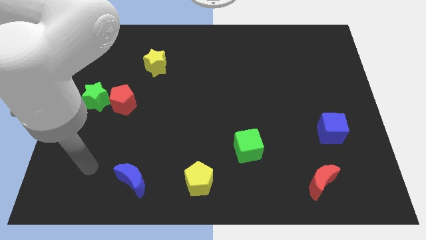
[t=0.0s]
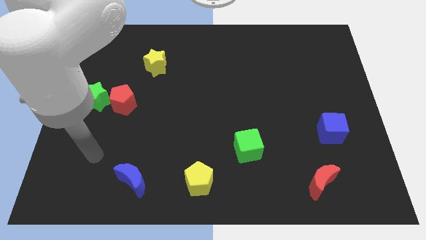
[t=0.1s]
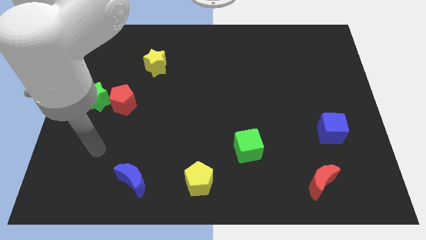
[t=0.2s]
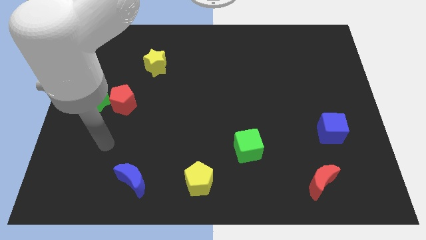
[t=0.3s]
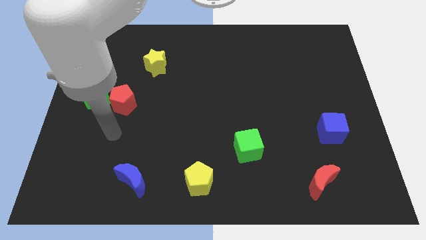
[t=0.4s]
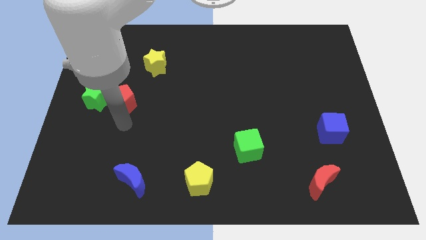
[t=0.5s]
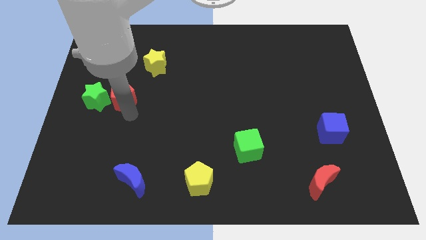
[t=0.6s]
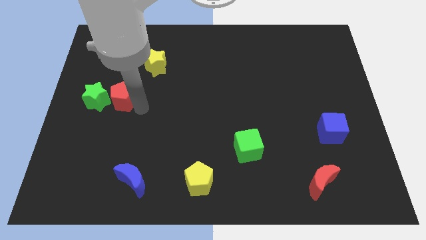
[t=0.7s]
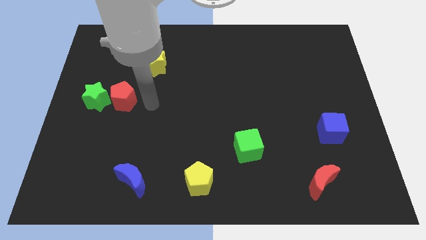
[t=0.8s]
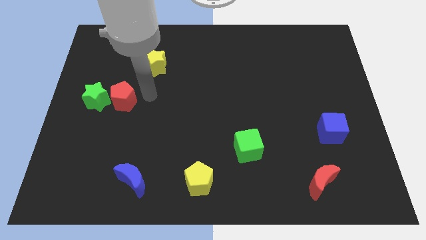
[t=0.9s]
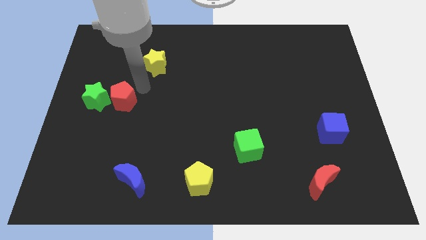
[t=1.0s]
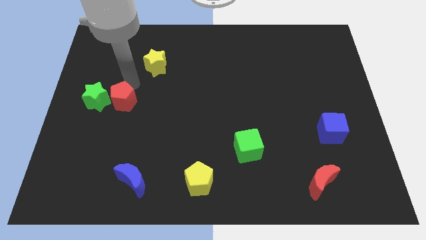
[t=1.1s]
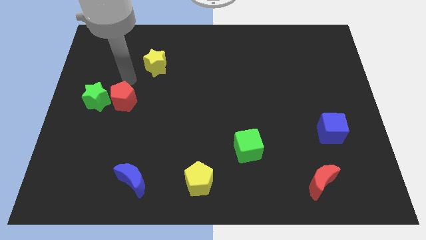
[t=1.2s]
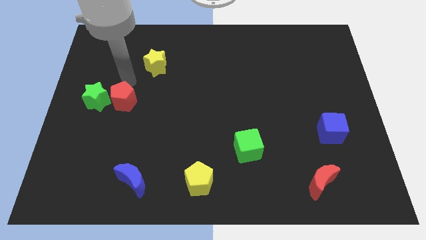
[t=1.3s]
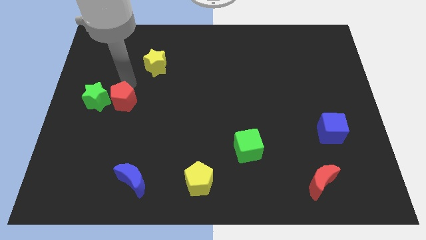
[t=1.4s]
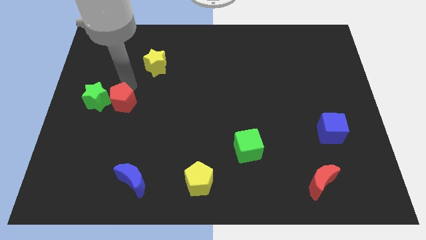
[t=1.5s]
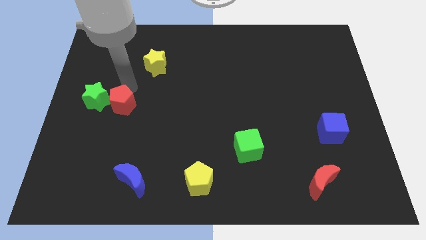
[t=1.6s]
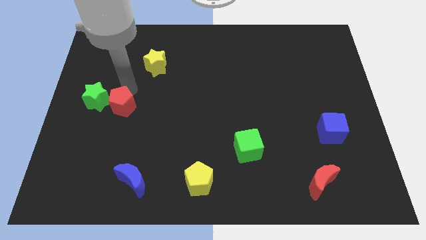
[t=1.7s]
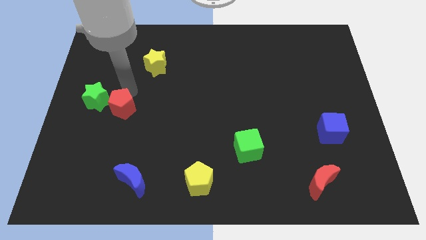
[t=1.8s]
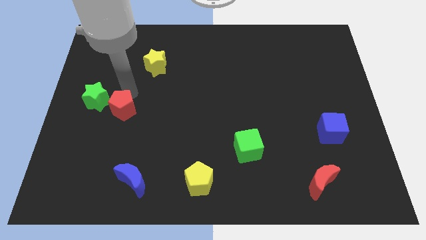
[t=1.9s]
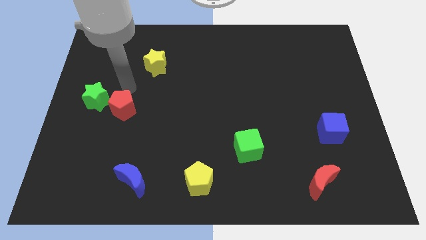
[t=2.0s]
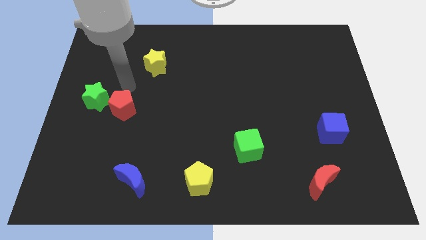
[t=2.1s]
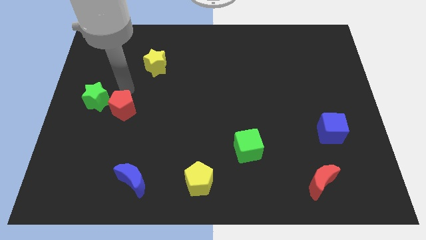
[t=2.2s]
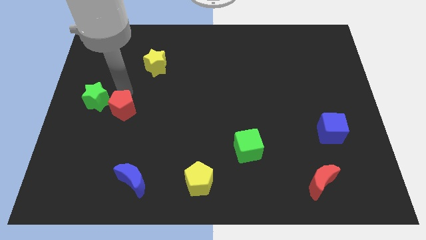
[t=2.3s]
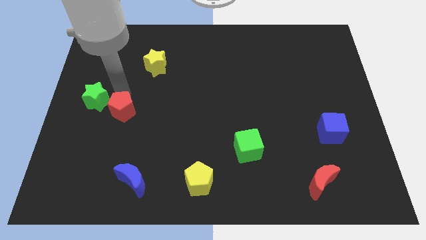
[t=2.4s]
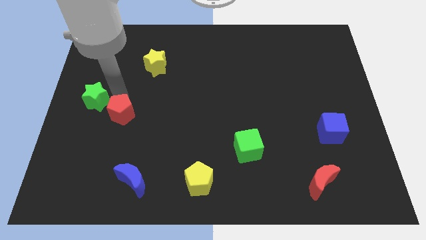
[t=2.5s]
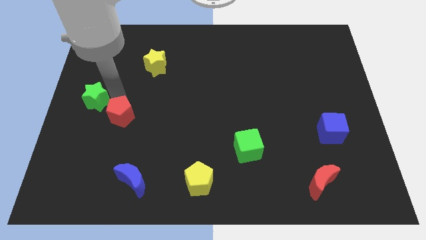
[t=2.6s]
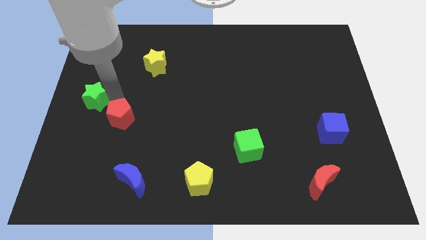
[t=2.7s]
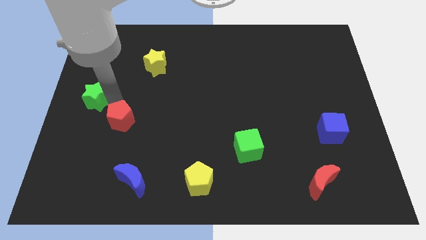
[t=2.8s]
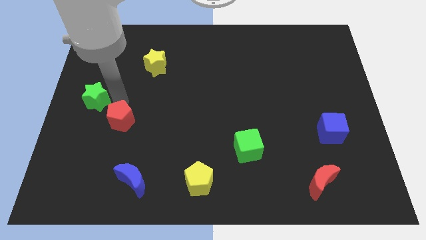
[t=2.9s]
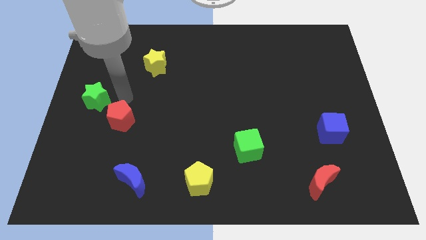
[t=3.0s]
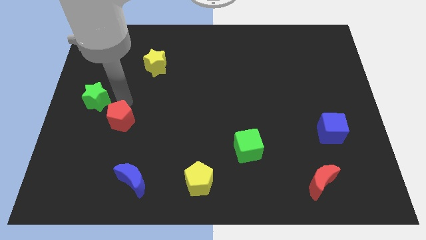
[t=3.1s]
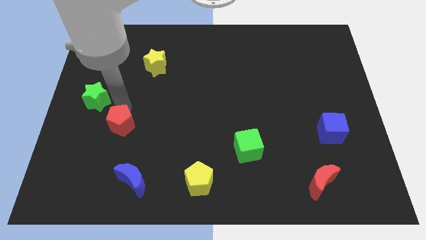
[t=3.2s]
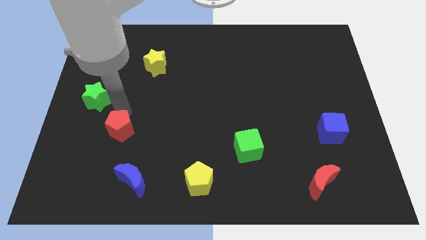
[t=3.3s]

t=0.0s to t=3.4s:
slightly move the red pentagon down

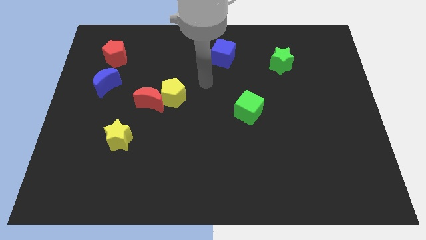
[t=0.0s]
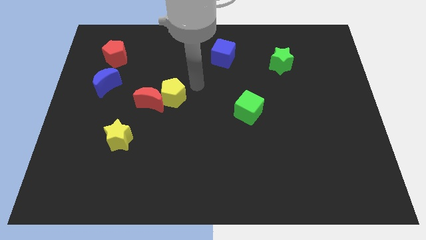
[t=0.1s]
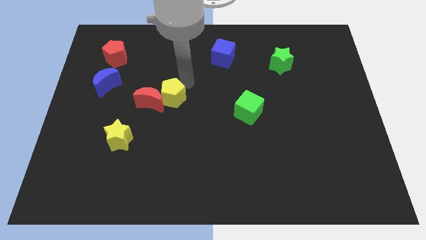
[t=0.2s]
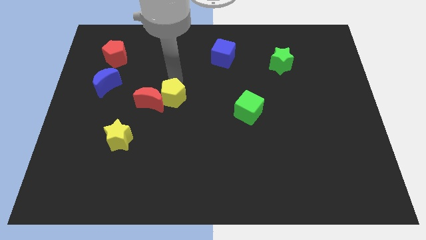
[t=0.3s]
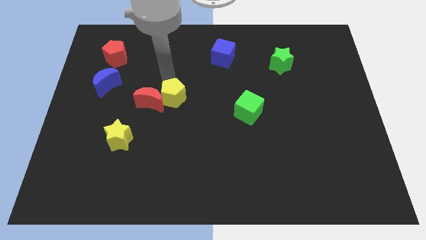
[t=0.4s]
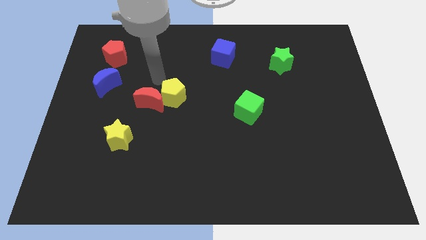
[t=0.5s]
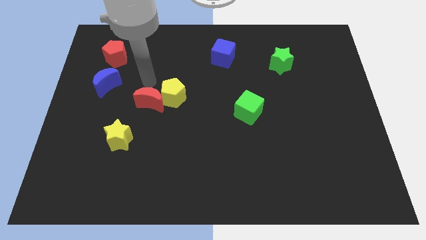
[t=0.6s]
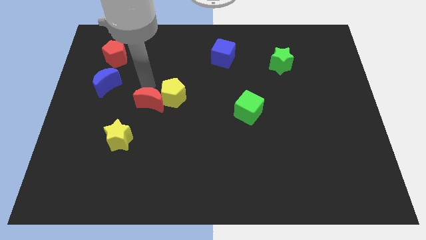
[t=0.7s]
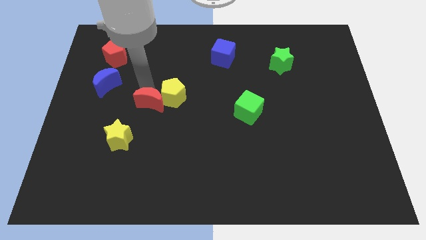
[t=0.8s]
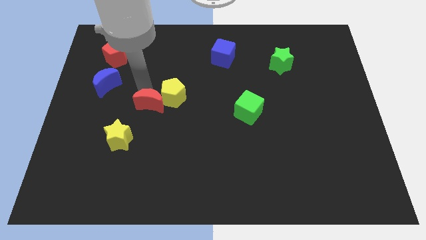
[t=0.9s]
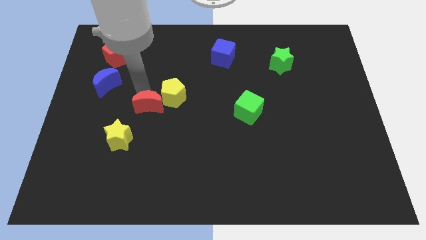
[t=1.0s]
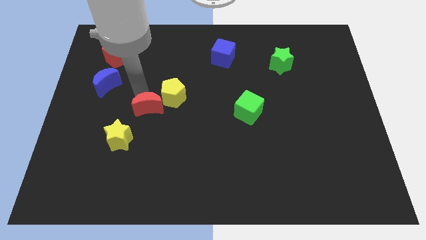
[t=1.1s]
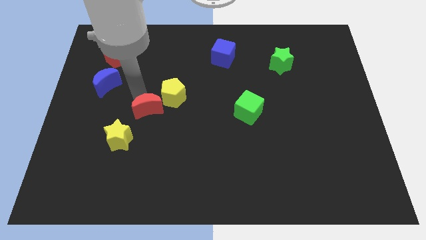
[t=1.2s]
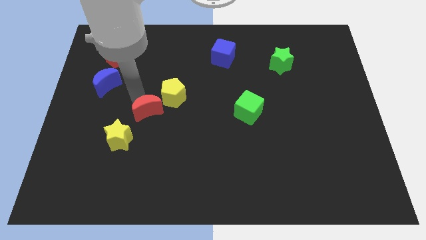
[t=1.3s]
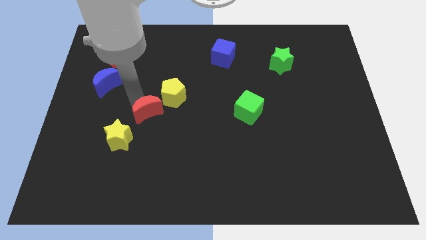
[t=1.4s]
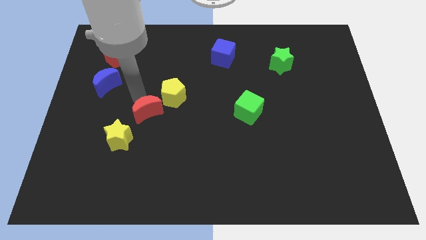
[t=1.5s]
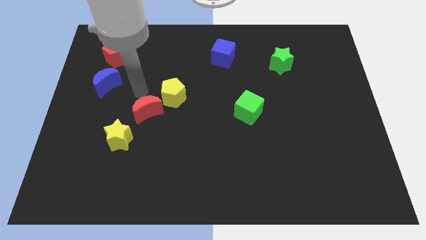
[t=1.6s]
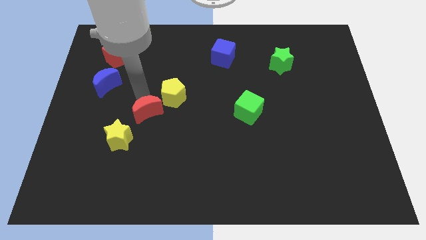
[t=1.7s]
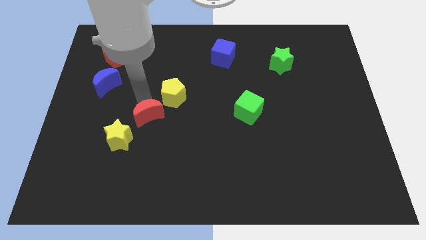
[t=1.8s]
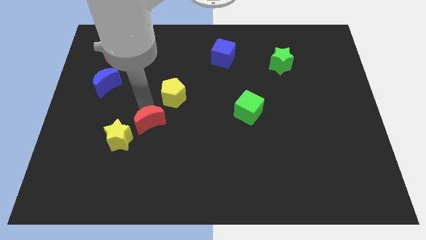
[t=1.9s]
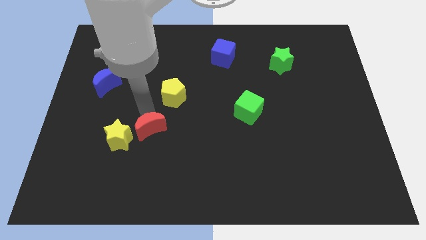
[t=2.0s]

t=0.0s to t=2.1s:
slightly slide the red moon downwards

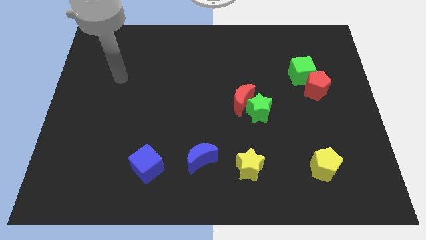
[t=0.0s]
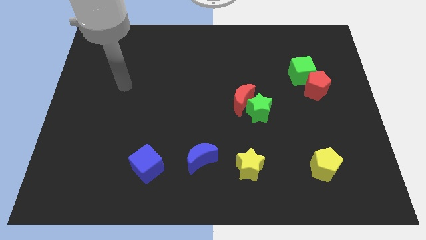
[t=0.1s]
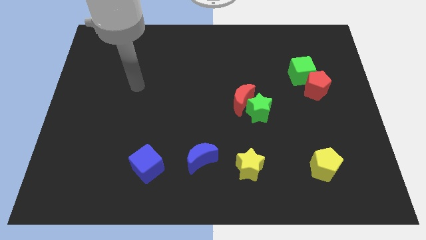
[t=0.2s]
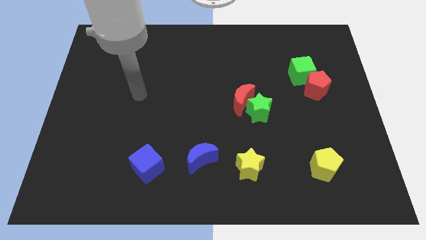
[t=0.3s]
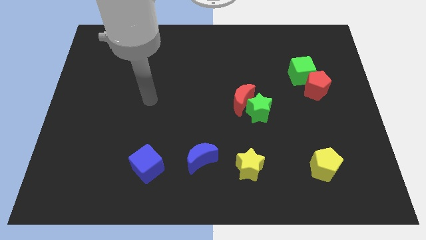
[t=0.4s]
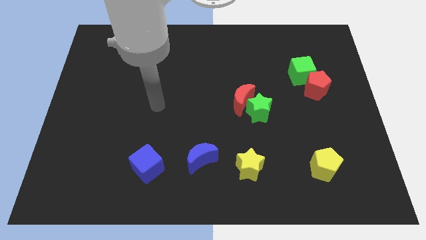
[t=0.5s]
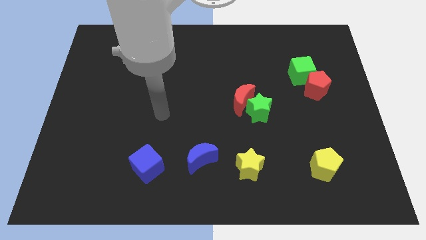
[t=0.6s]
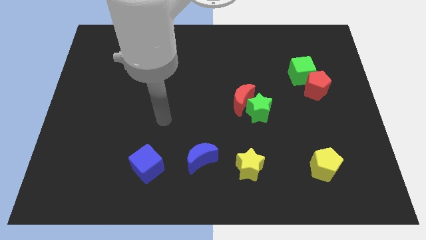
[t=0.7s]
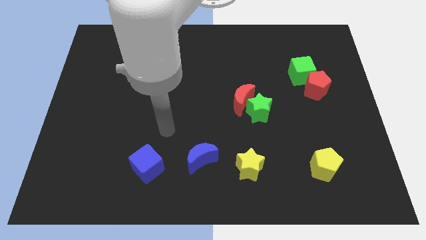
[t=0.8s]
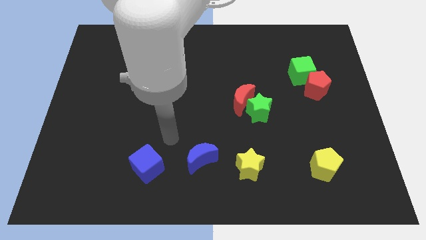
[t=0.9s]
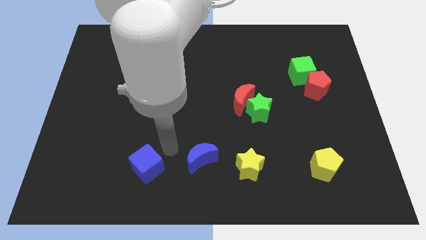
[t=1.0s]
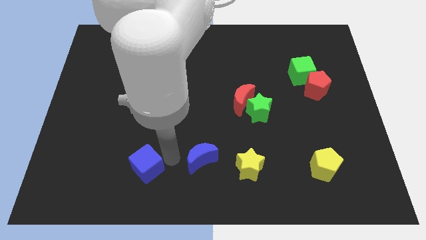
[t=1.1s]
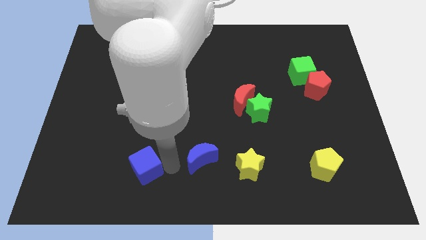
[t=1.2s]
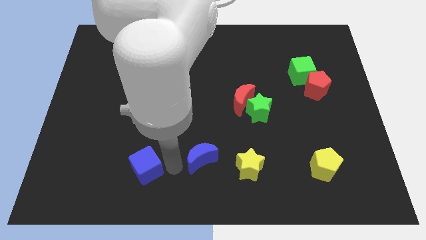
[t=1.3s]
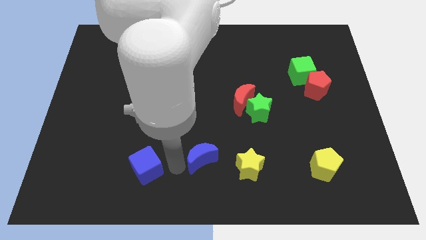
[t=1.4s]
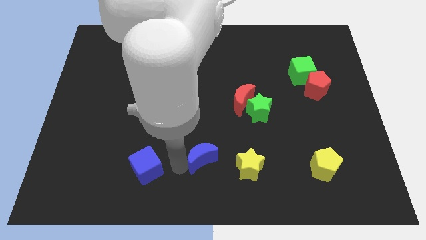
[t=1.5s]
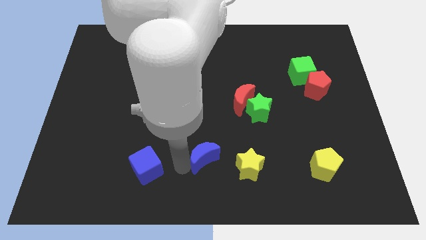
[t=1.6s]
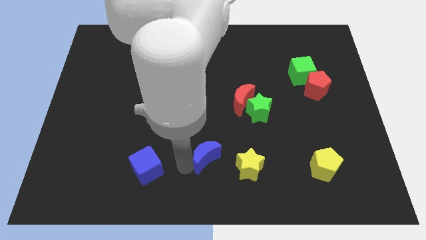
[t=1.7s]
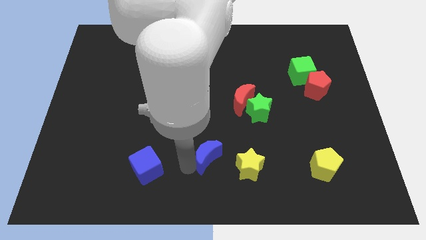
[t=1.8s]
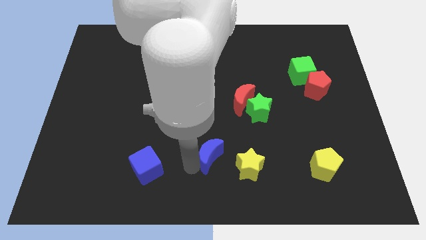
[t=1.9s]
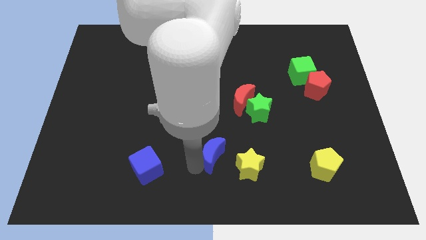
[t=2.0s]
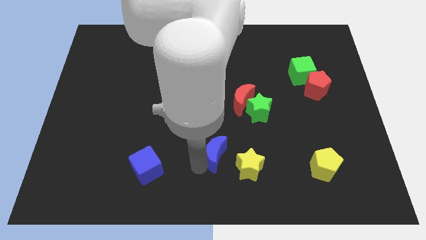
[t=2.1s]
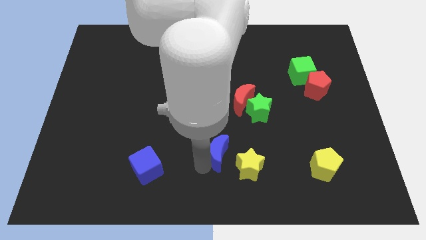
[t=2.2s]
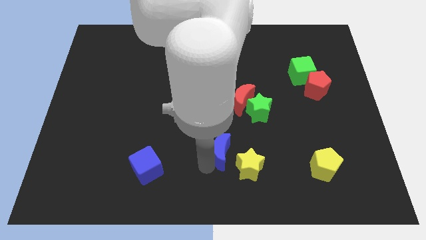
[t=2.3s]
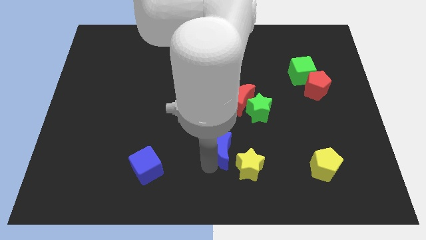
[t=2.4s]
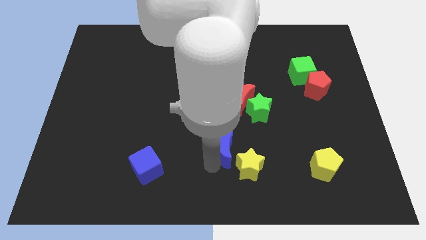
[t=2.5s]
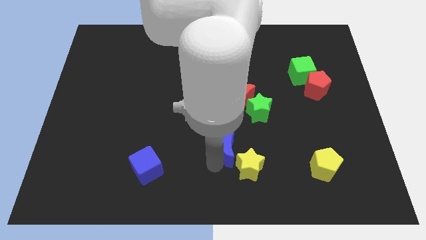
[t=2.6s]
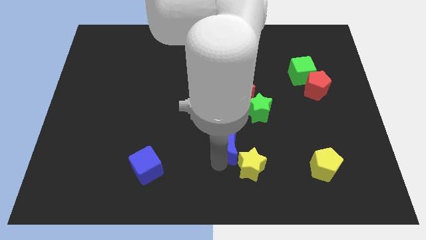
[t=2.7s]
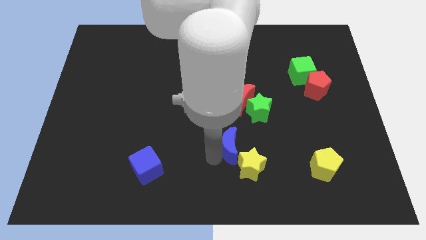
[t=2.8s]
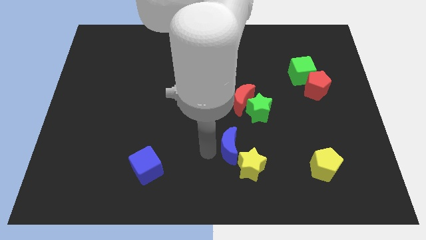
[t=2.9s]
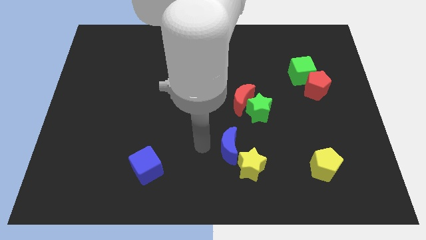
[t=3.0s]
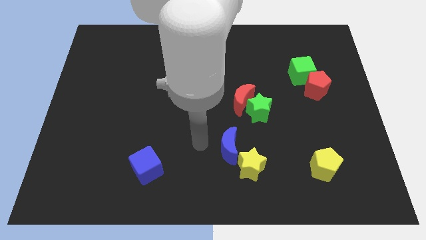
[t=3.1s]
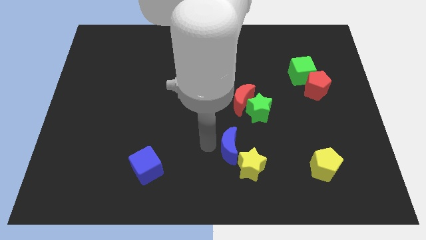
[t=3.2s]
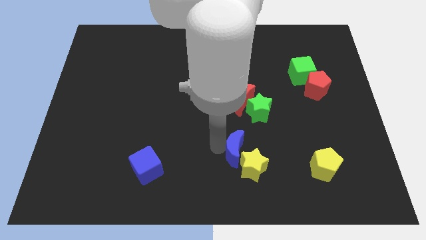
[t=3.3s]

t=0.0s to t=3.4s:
move the blue moon somewhat right
